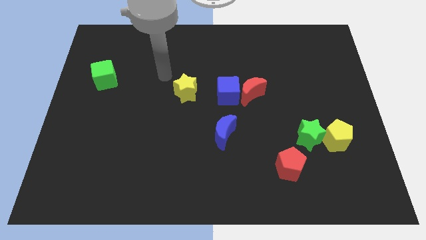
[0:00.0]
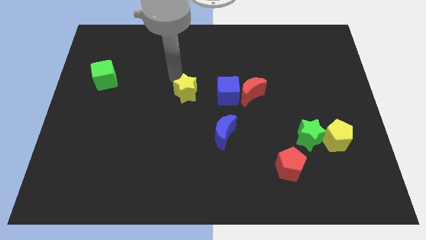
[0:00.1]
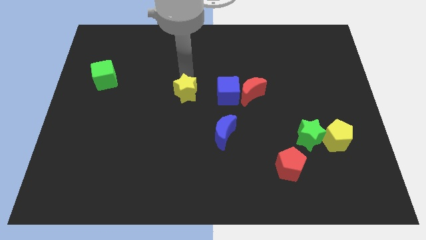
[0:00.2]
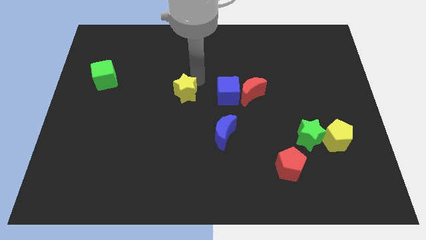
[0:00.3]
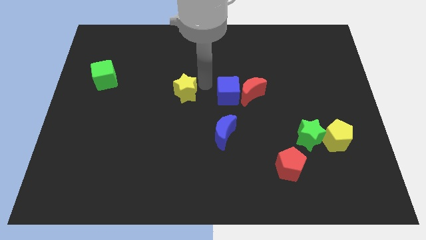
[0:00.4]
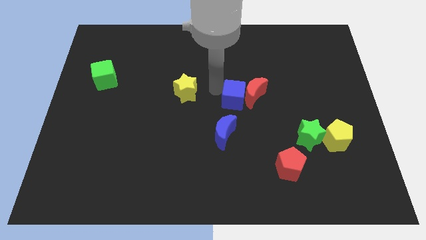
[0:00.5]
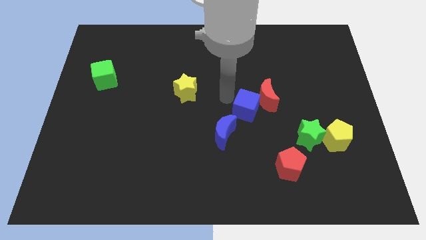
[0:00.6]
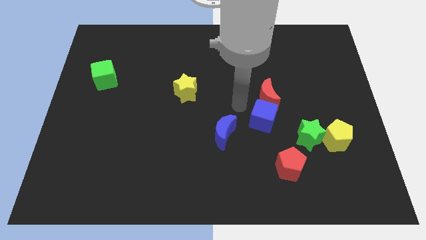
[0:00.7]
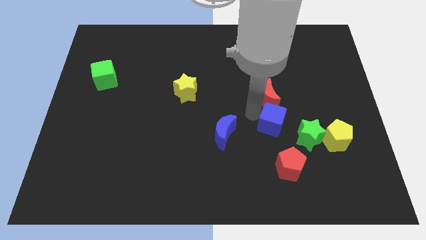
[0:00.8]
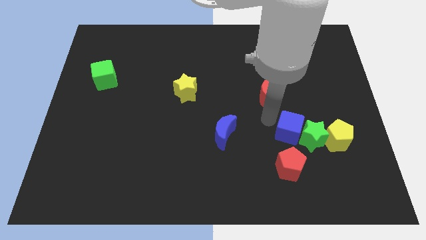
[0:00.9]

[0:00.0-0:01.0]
separate the red moon from the blue cube

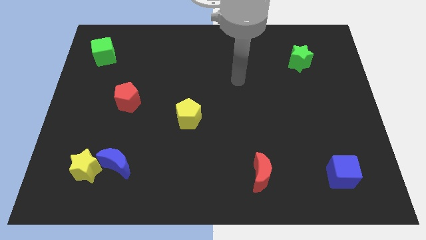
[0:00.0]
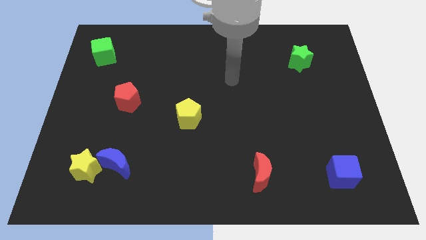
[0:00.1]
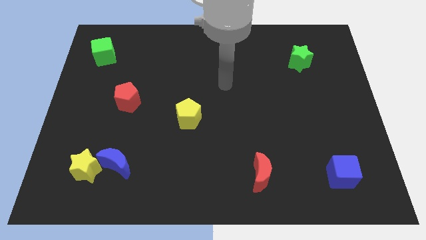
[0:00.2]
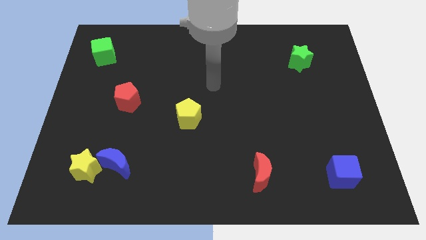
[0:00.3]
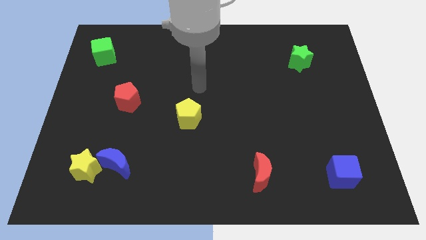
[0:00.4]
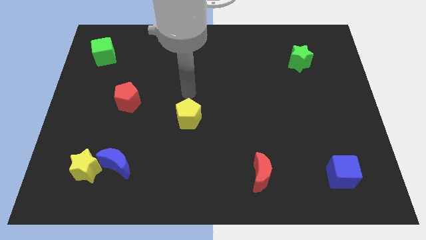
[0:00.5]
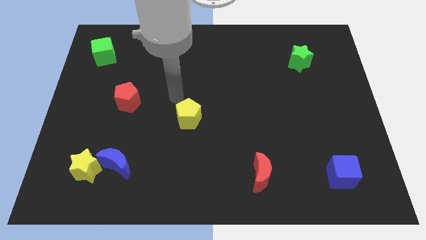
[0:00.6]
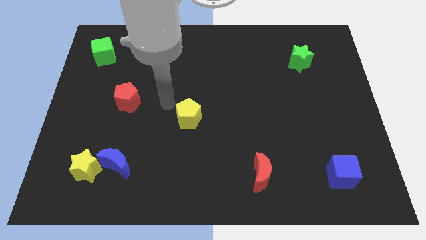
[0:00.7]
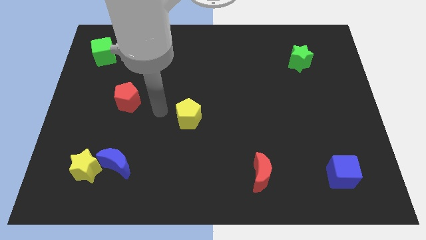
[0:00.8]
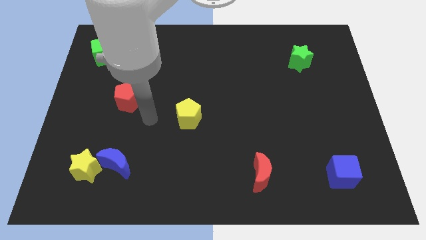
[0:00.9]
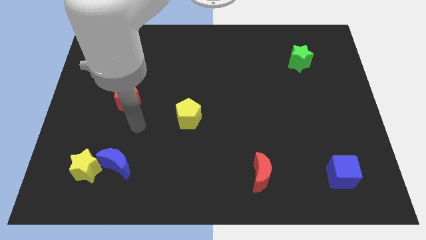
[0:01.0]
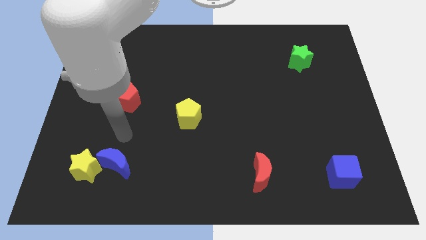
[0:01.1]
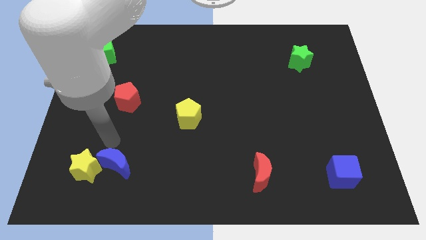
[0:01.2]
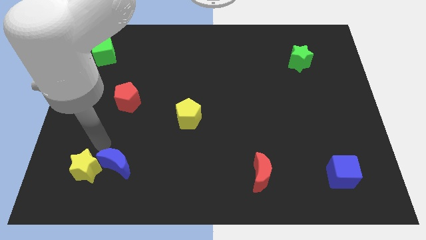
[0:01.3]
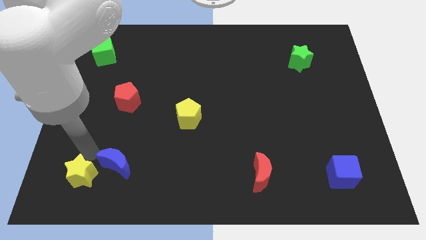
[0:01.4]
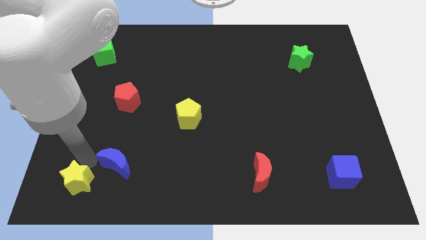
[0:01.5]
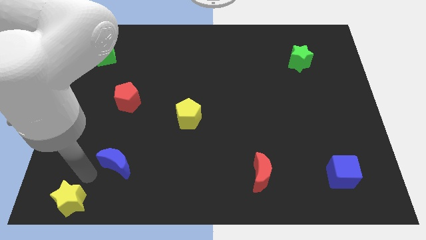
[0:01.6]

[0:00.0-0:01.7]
pull the blue moon apart from the yellow star

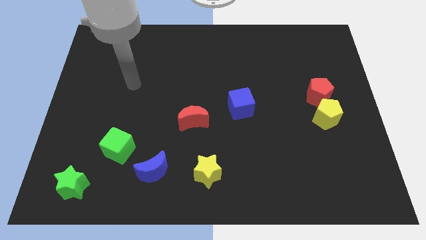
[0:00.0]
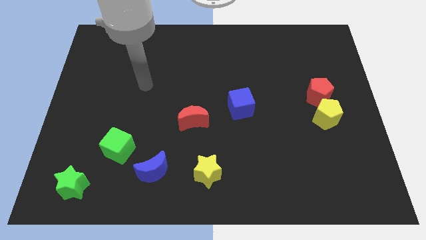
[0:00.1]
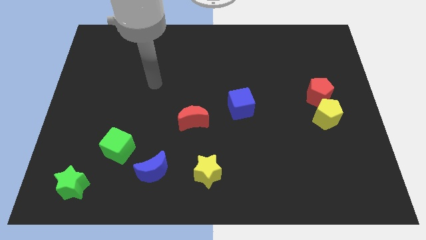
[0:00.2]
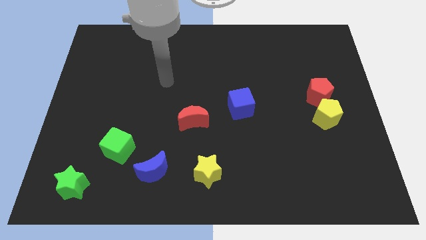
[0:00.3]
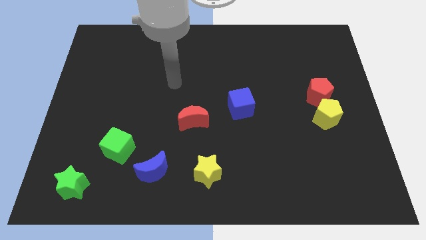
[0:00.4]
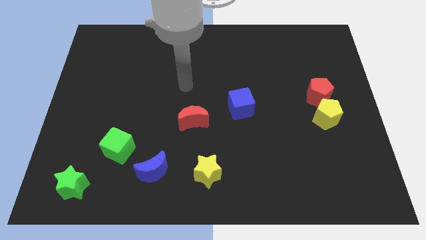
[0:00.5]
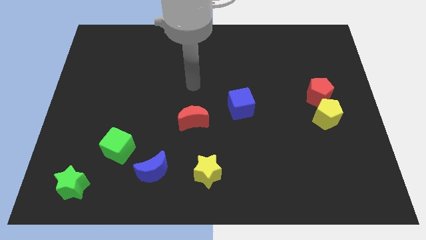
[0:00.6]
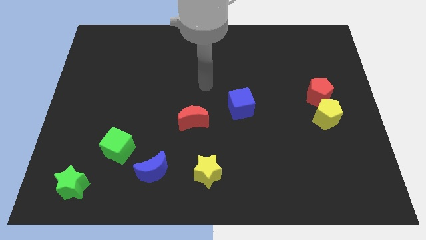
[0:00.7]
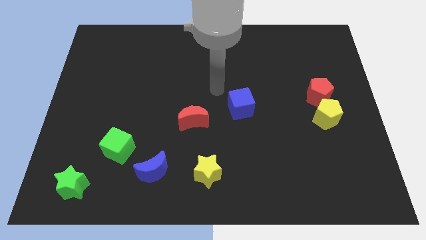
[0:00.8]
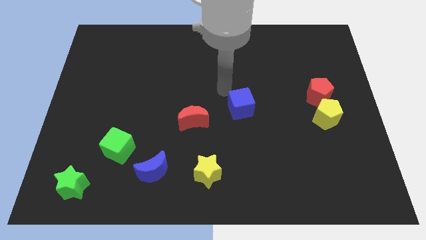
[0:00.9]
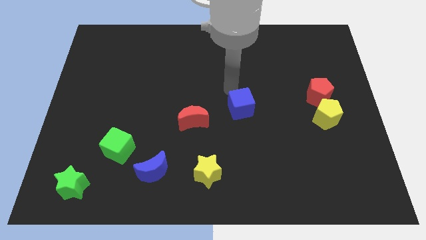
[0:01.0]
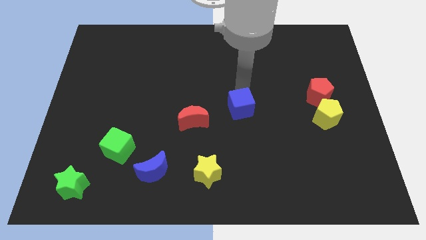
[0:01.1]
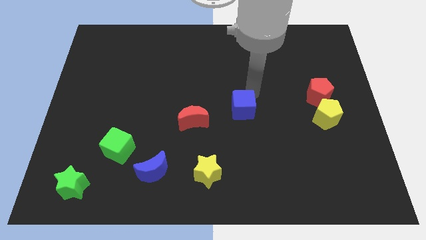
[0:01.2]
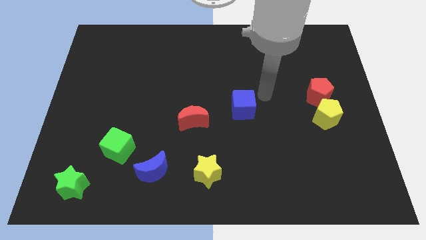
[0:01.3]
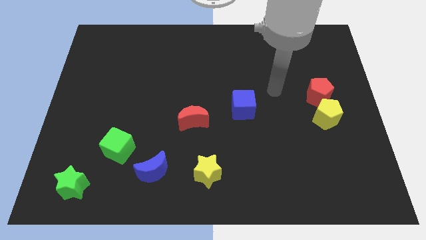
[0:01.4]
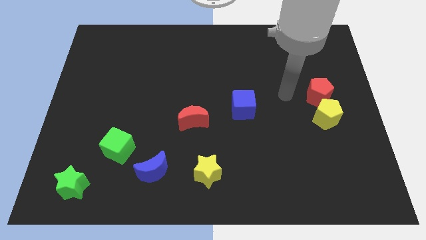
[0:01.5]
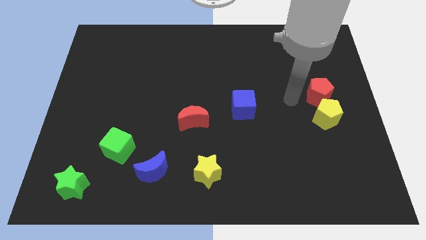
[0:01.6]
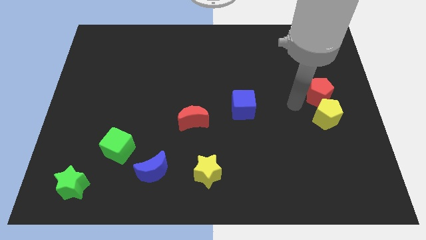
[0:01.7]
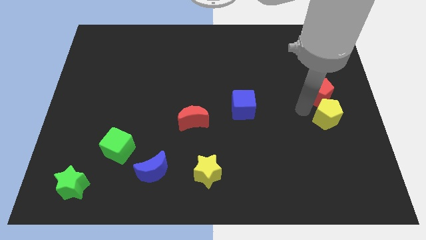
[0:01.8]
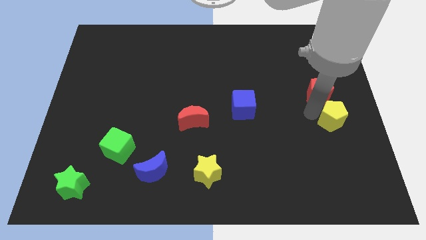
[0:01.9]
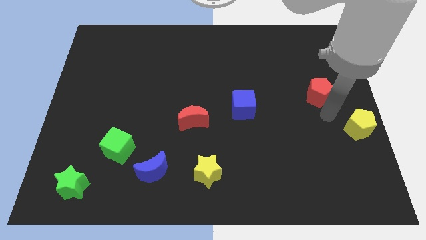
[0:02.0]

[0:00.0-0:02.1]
move the red pentagon away from the yellow pentagon

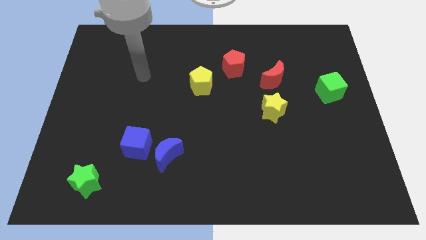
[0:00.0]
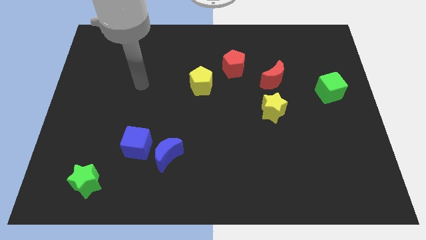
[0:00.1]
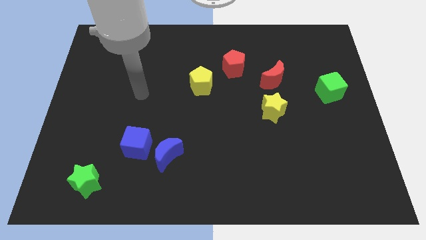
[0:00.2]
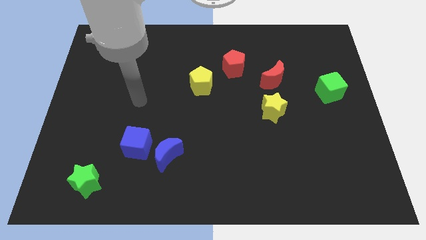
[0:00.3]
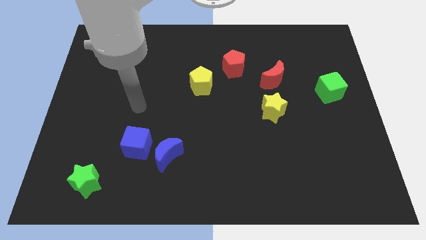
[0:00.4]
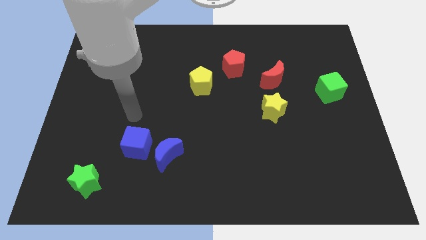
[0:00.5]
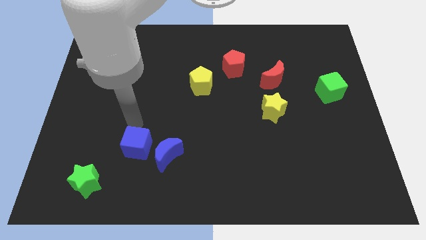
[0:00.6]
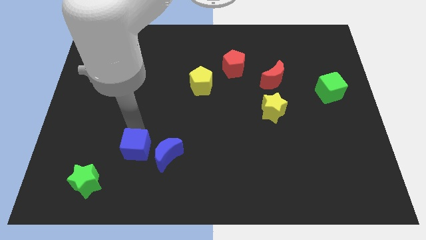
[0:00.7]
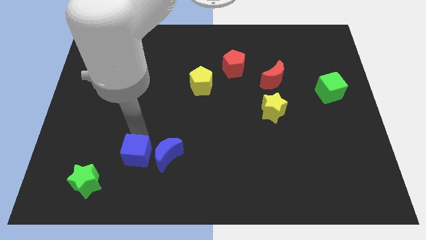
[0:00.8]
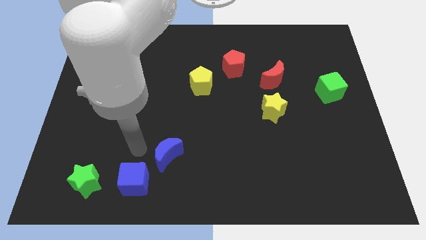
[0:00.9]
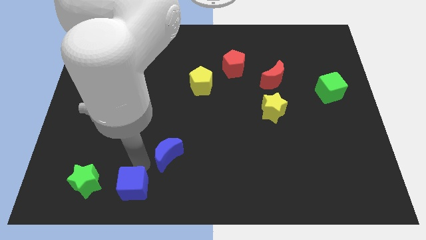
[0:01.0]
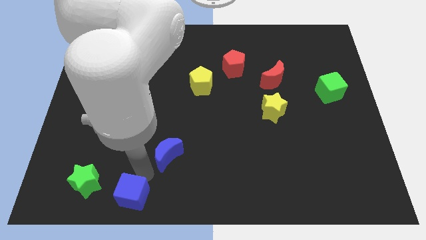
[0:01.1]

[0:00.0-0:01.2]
move the blue moon away from the blue cube

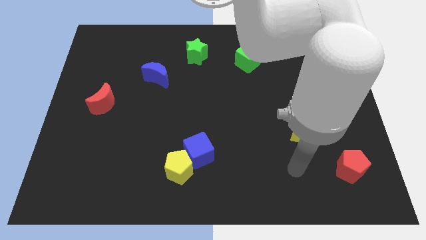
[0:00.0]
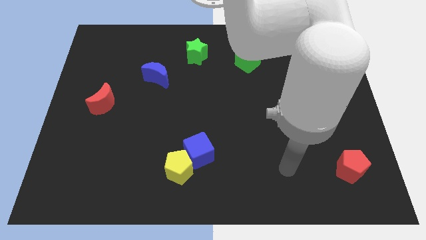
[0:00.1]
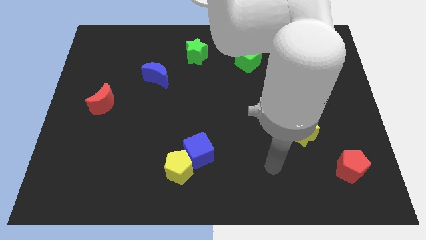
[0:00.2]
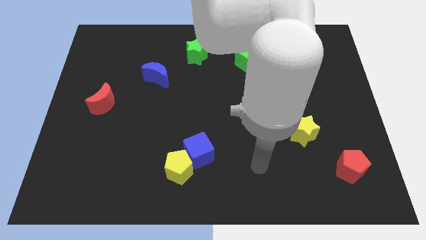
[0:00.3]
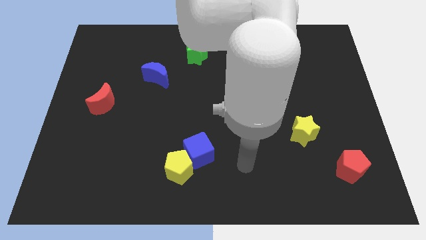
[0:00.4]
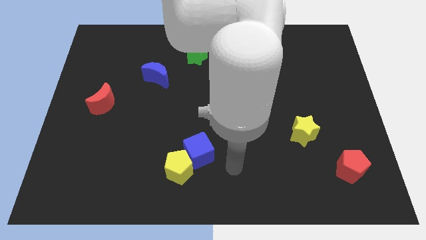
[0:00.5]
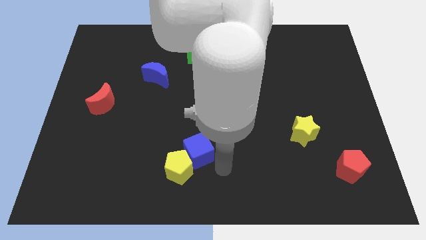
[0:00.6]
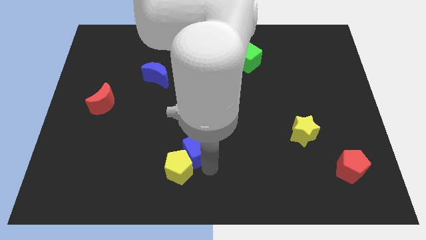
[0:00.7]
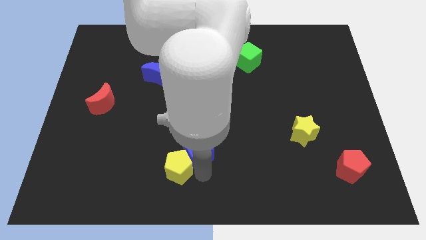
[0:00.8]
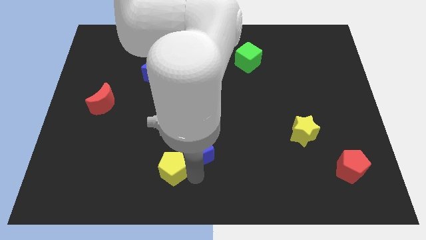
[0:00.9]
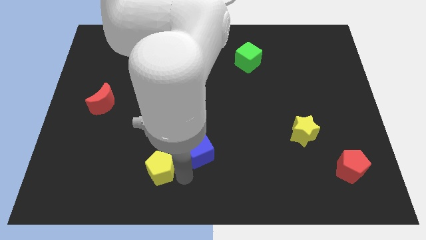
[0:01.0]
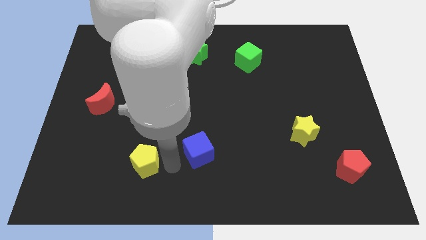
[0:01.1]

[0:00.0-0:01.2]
separate the blue cube from the yellow pentagon

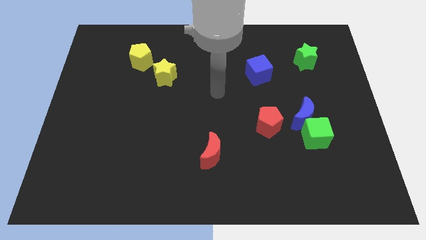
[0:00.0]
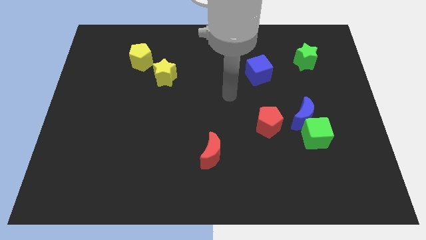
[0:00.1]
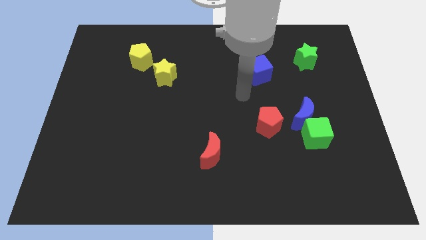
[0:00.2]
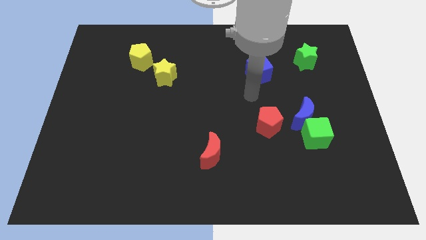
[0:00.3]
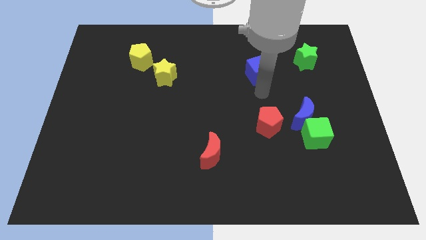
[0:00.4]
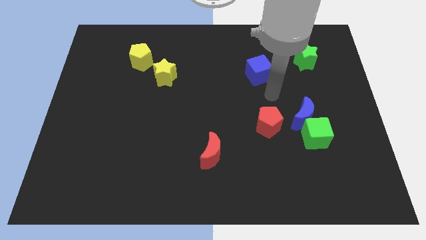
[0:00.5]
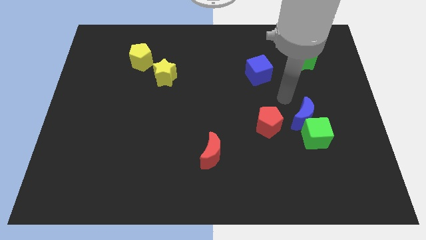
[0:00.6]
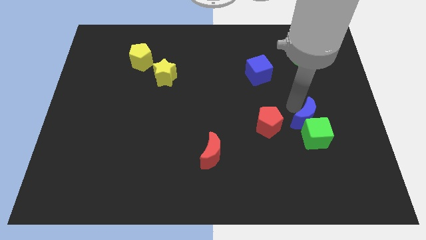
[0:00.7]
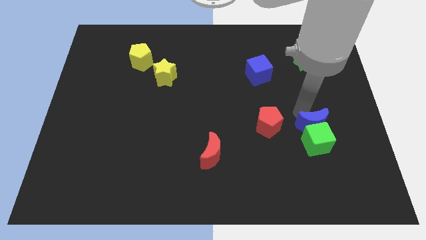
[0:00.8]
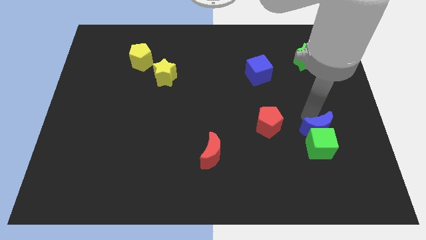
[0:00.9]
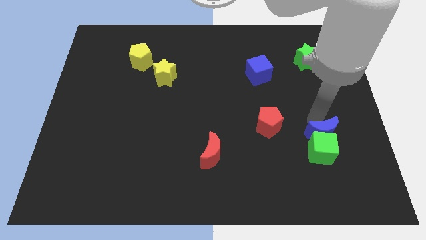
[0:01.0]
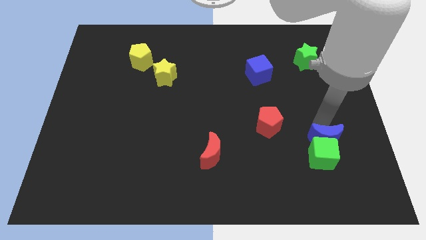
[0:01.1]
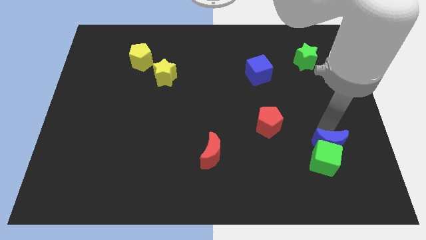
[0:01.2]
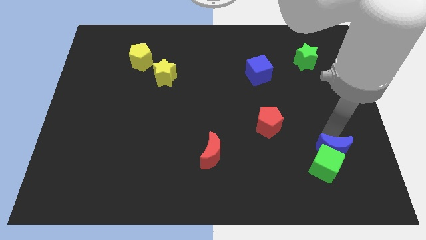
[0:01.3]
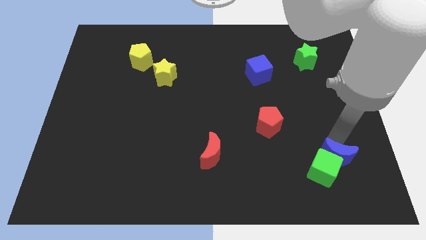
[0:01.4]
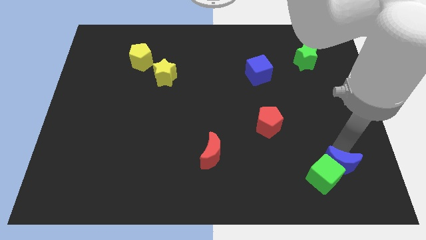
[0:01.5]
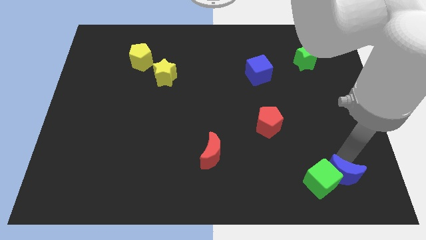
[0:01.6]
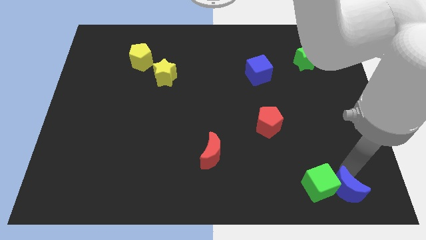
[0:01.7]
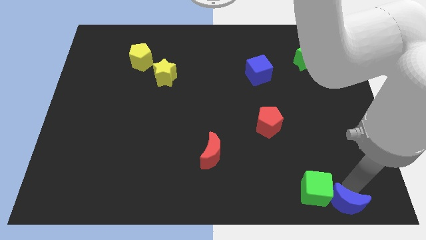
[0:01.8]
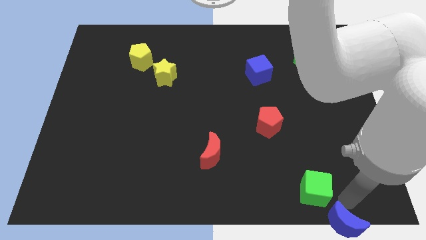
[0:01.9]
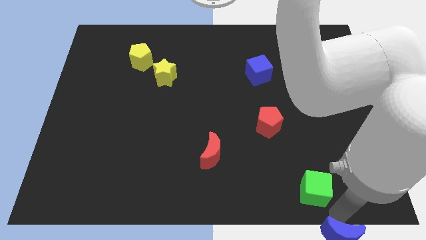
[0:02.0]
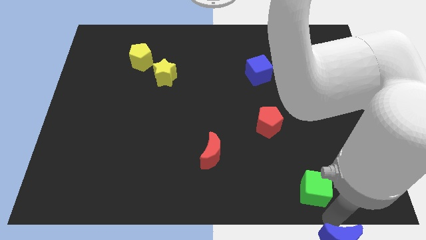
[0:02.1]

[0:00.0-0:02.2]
pull the green cube apart from the blue moon
